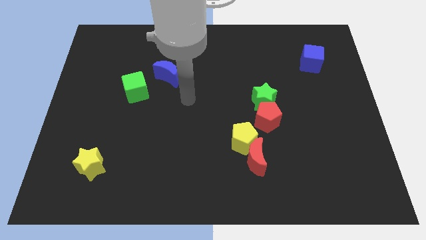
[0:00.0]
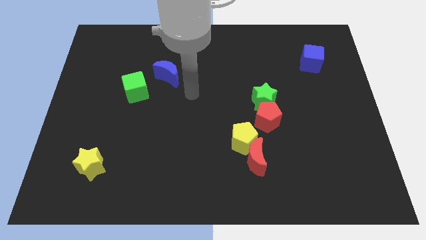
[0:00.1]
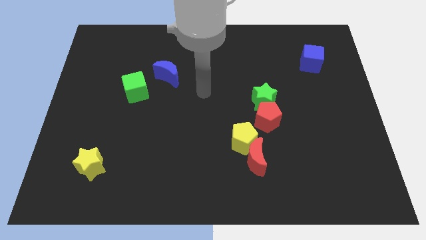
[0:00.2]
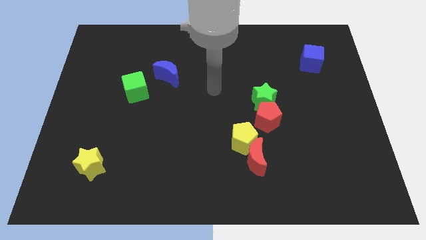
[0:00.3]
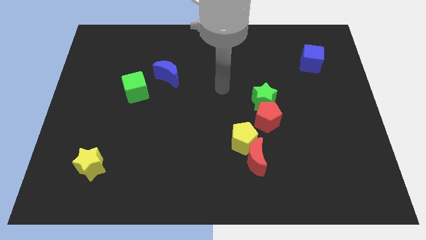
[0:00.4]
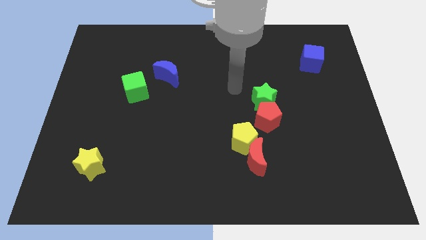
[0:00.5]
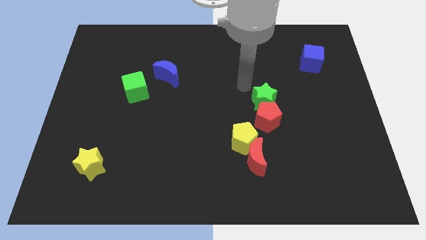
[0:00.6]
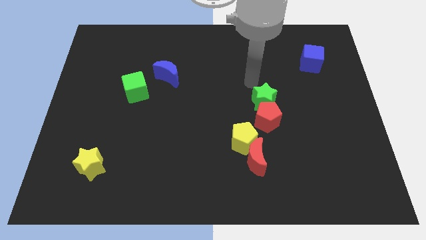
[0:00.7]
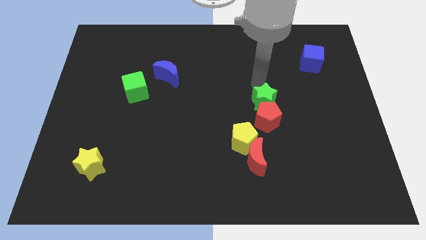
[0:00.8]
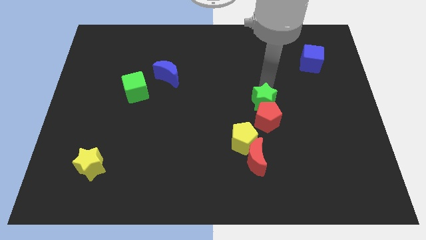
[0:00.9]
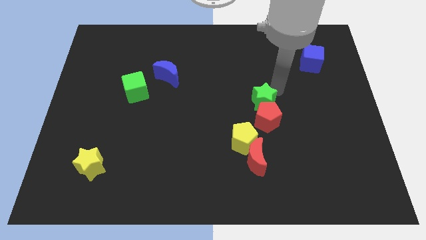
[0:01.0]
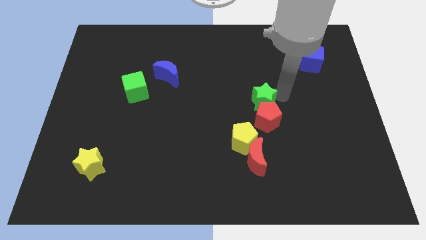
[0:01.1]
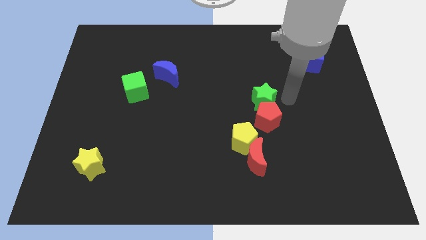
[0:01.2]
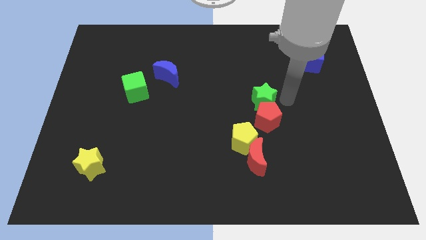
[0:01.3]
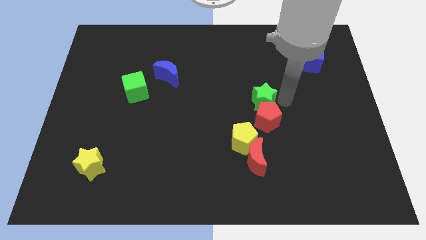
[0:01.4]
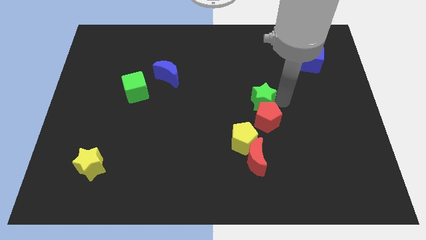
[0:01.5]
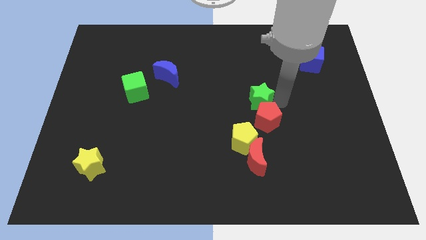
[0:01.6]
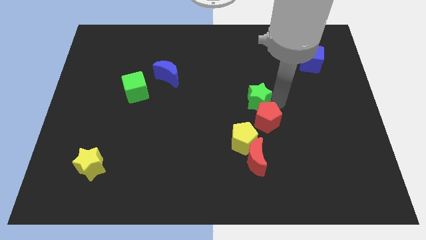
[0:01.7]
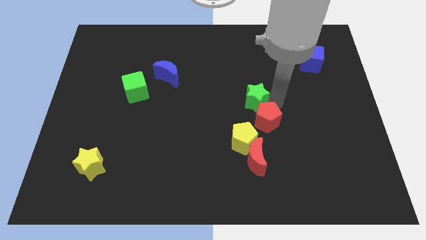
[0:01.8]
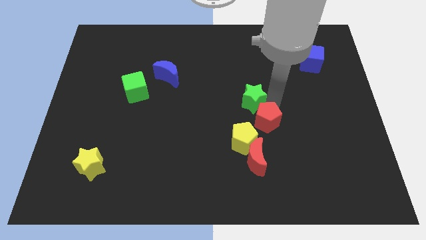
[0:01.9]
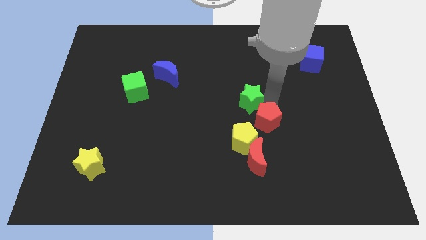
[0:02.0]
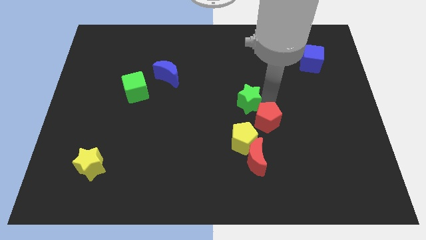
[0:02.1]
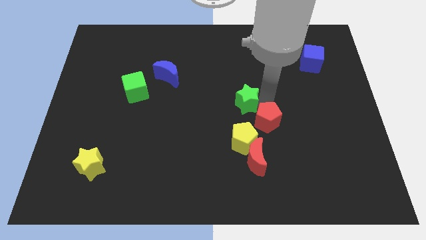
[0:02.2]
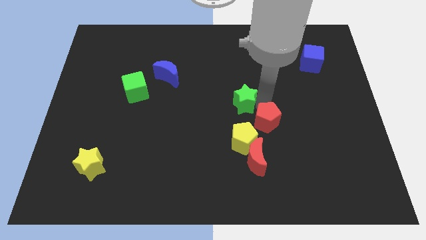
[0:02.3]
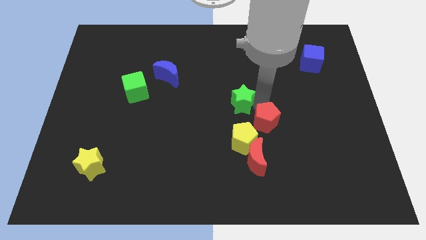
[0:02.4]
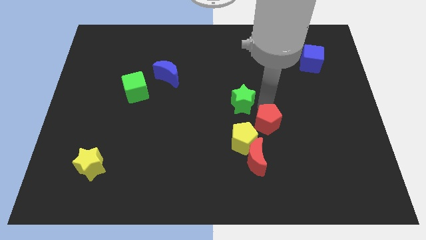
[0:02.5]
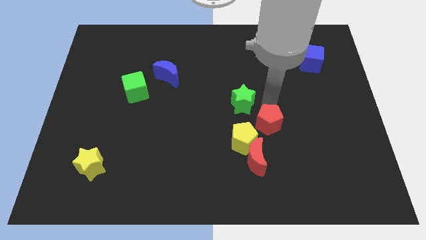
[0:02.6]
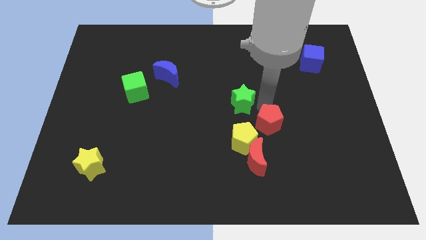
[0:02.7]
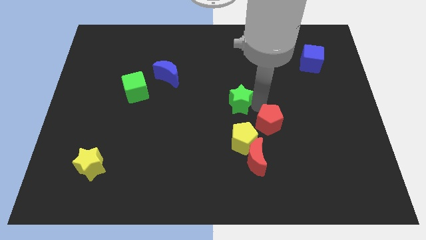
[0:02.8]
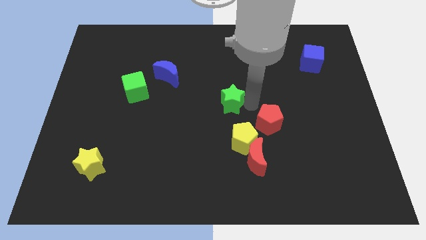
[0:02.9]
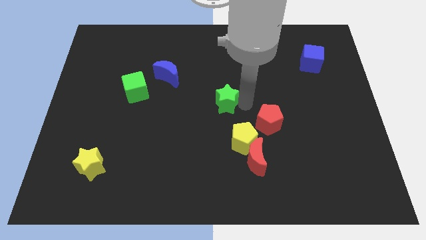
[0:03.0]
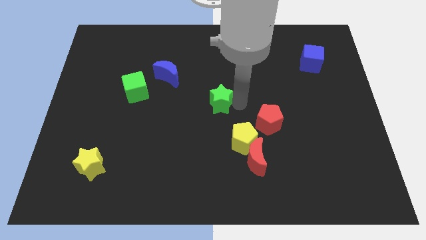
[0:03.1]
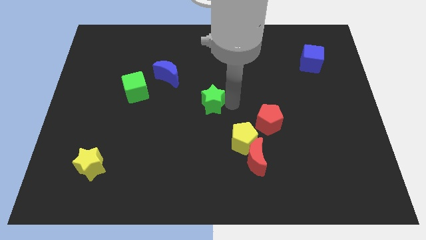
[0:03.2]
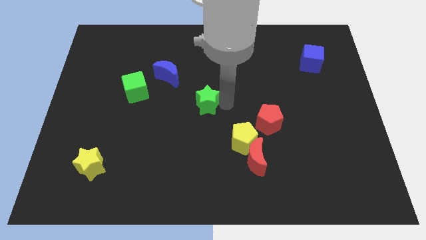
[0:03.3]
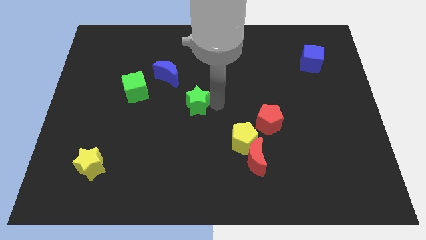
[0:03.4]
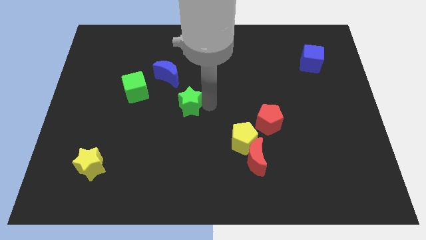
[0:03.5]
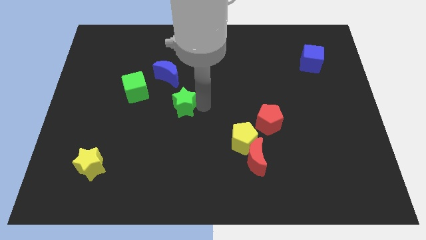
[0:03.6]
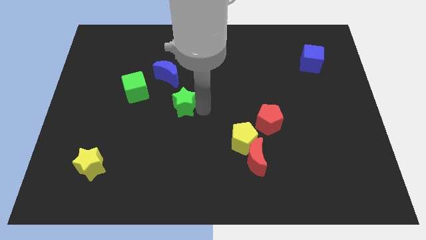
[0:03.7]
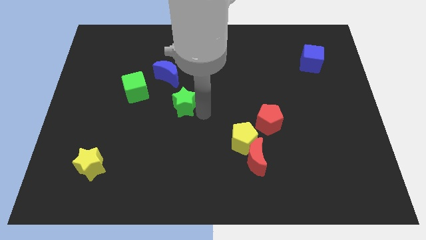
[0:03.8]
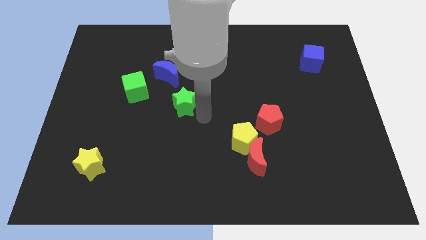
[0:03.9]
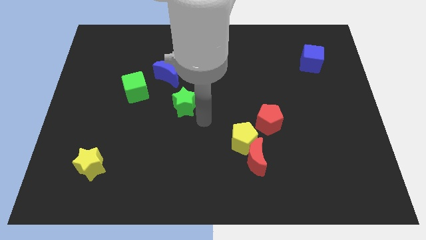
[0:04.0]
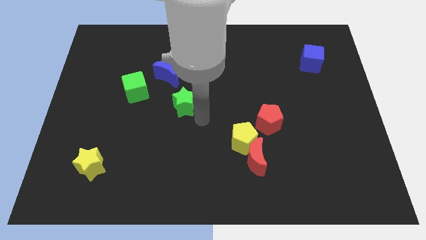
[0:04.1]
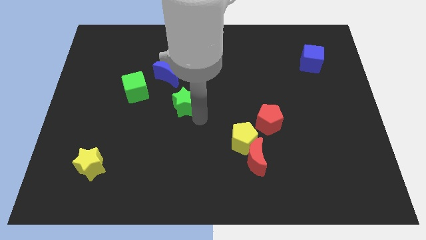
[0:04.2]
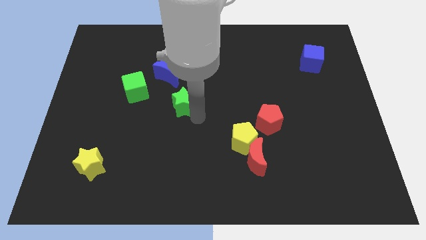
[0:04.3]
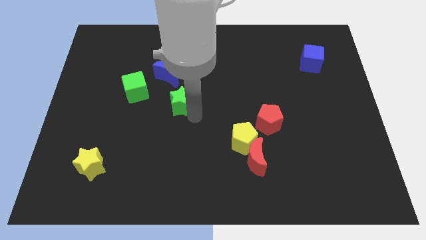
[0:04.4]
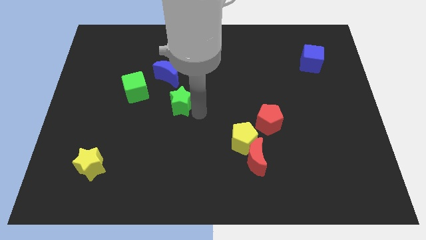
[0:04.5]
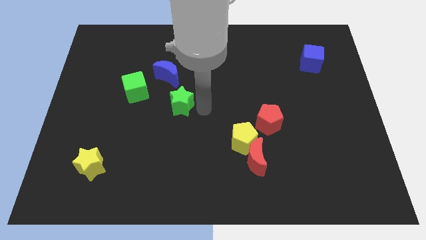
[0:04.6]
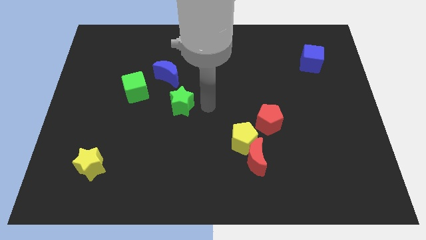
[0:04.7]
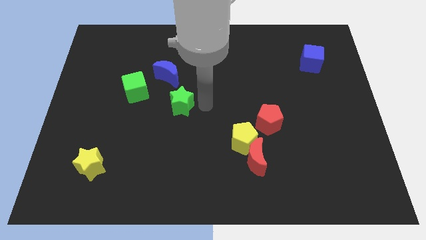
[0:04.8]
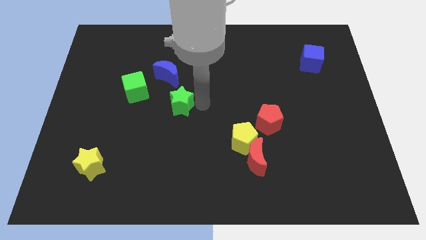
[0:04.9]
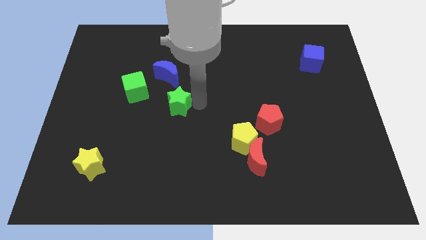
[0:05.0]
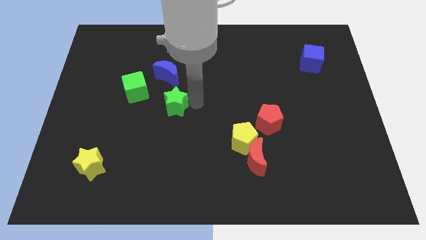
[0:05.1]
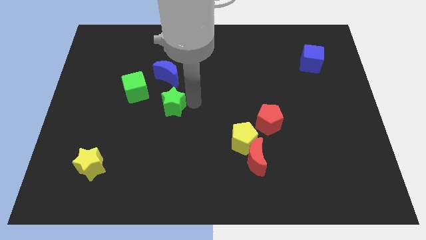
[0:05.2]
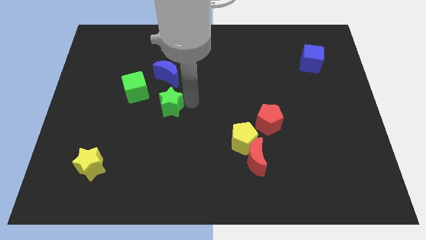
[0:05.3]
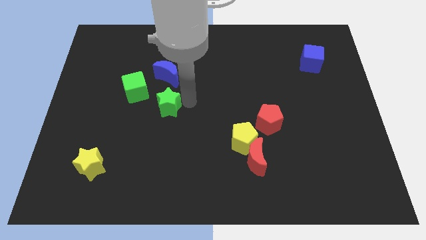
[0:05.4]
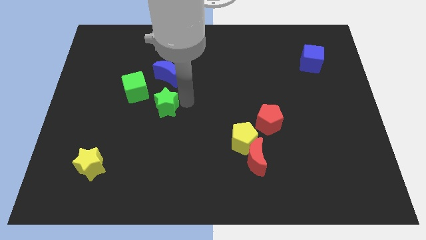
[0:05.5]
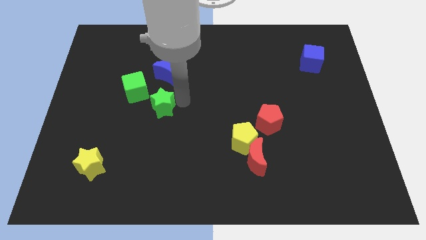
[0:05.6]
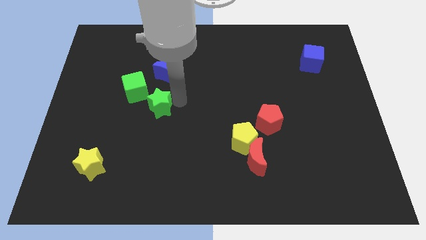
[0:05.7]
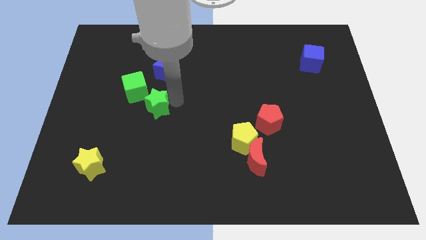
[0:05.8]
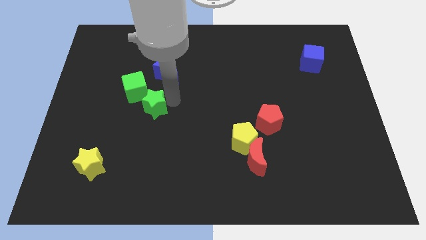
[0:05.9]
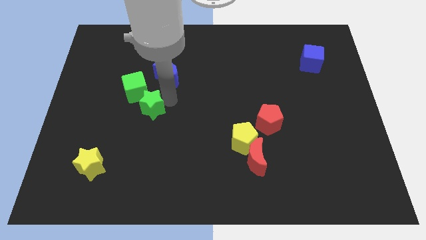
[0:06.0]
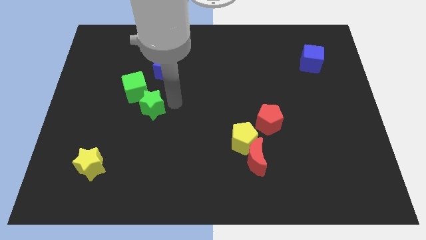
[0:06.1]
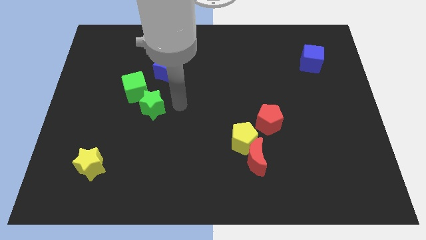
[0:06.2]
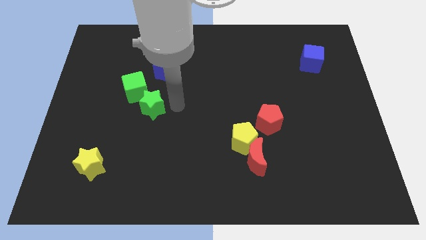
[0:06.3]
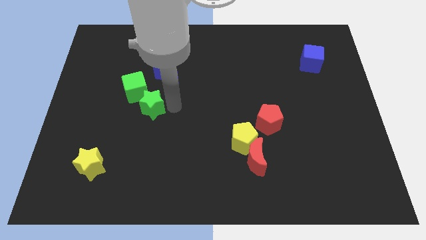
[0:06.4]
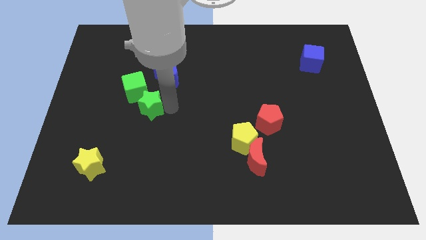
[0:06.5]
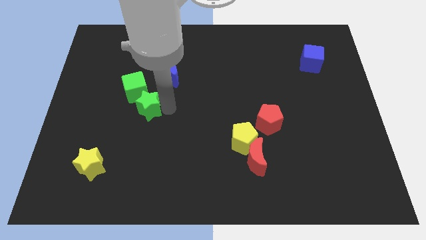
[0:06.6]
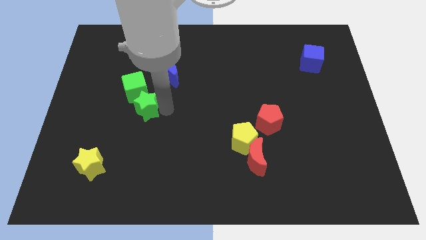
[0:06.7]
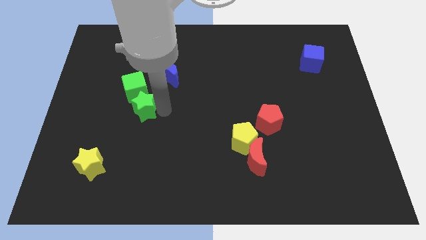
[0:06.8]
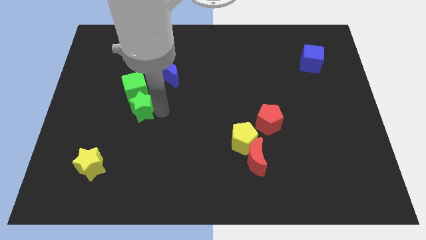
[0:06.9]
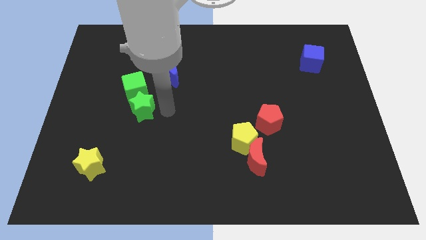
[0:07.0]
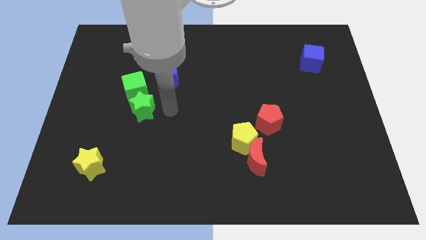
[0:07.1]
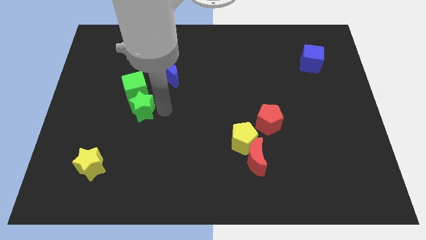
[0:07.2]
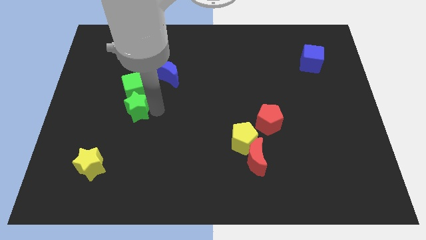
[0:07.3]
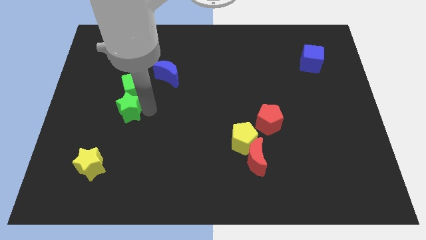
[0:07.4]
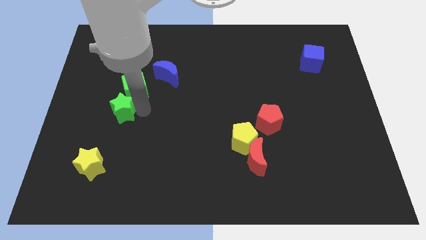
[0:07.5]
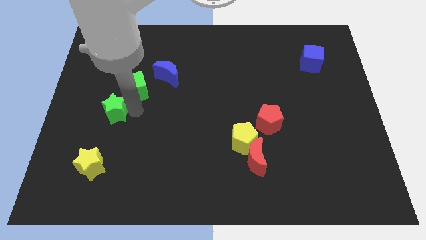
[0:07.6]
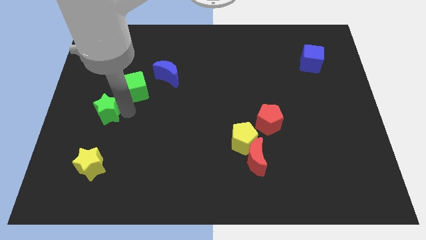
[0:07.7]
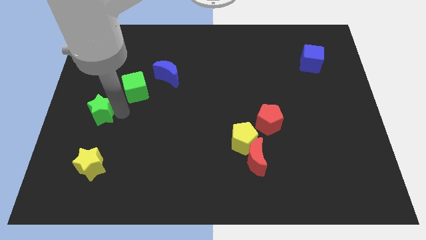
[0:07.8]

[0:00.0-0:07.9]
move the green star to the left side of the board
